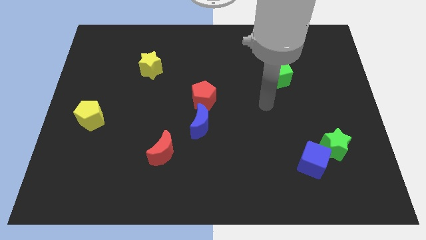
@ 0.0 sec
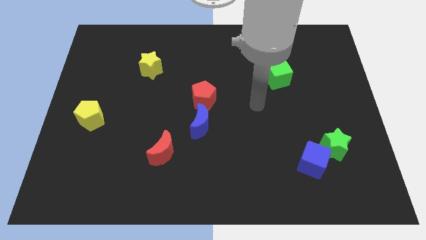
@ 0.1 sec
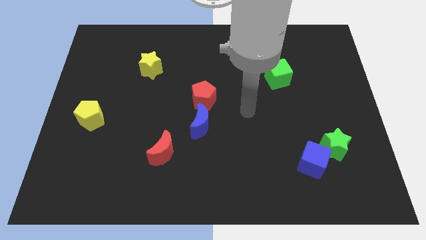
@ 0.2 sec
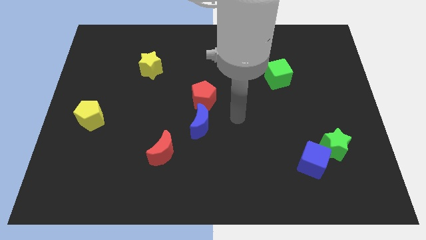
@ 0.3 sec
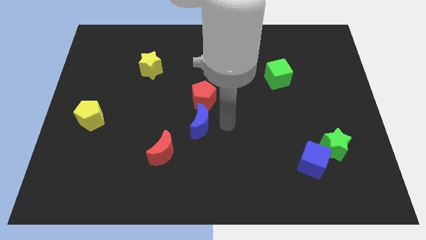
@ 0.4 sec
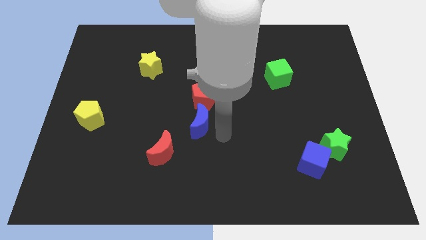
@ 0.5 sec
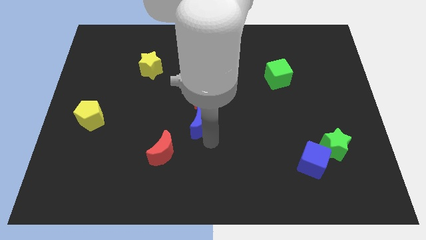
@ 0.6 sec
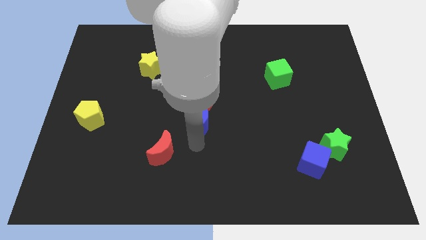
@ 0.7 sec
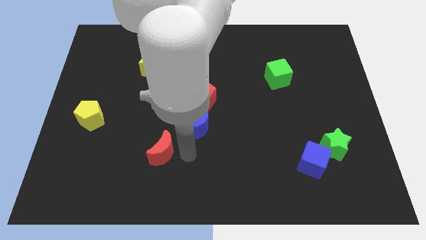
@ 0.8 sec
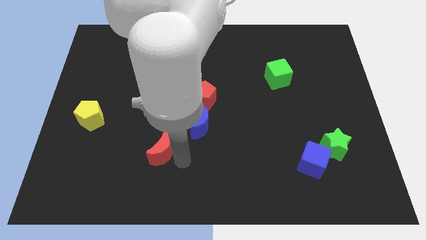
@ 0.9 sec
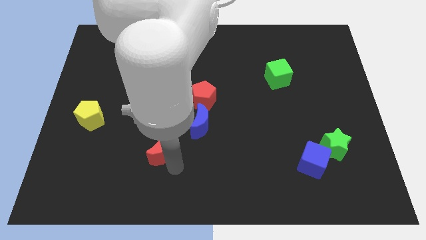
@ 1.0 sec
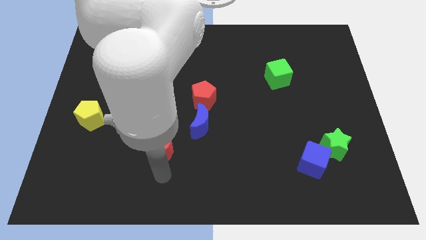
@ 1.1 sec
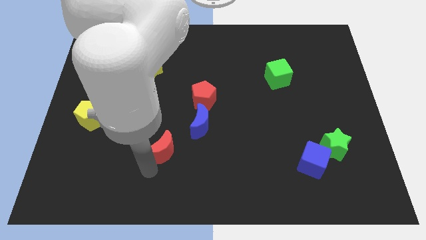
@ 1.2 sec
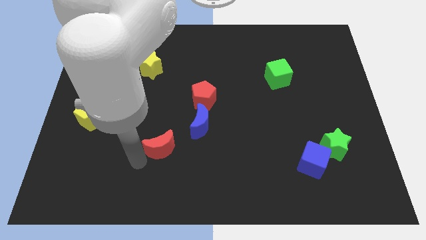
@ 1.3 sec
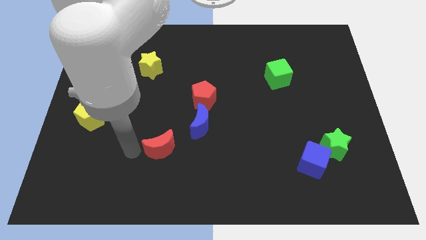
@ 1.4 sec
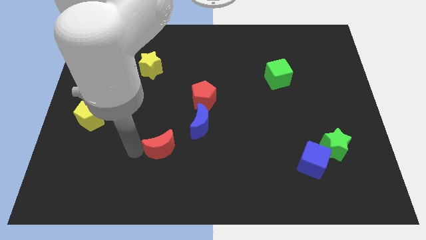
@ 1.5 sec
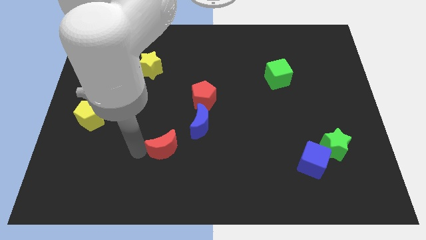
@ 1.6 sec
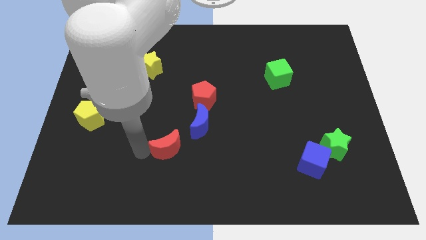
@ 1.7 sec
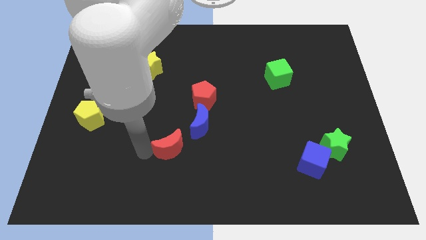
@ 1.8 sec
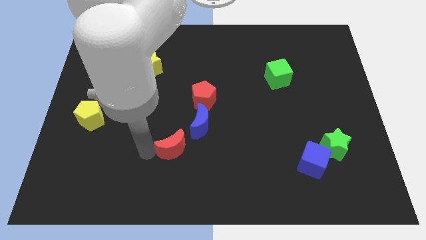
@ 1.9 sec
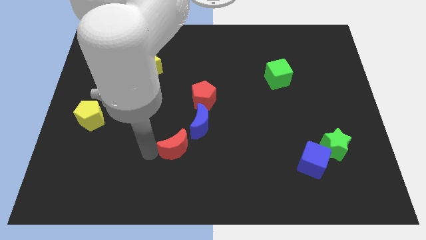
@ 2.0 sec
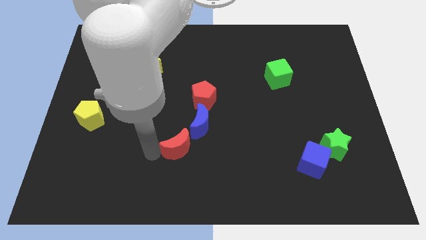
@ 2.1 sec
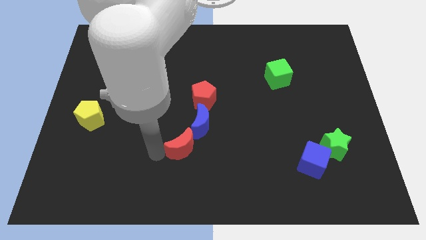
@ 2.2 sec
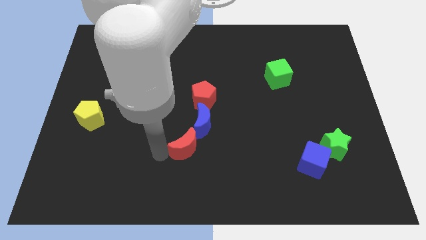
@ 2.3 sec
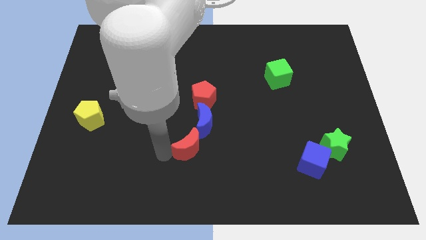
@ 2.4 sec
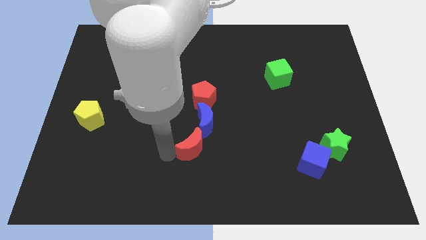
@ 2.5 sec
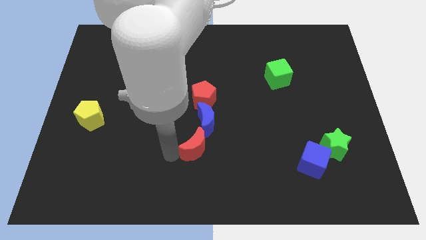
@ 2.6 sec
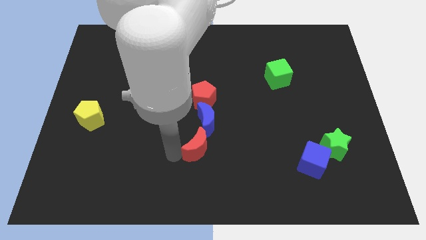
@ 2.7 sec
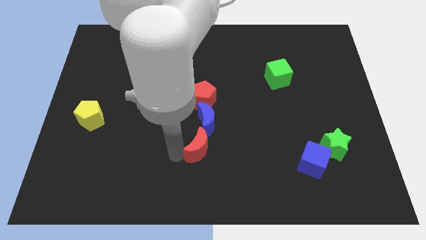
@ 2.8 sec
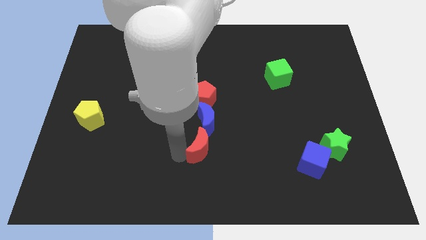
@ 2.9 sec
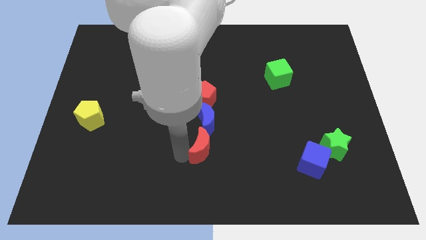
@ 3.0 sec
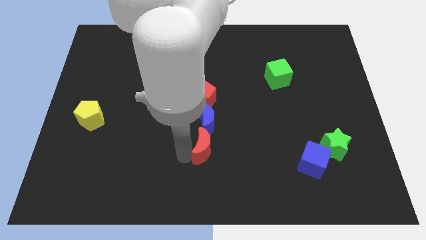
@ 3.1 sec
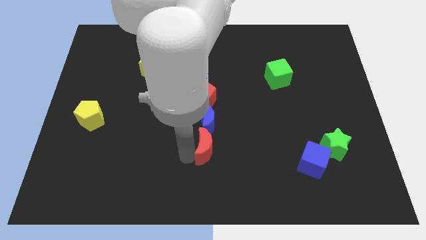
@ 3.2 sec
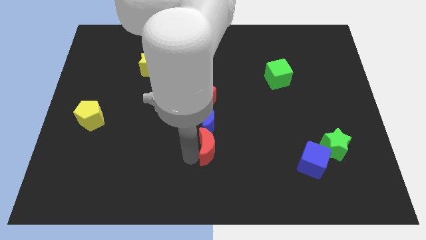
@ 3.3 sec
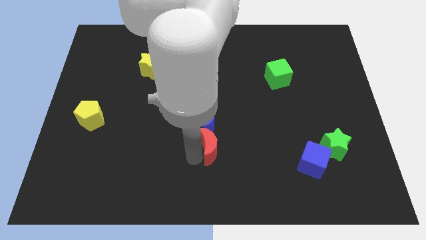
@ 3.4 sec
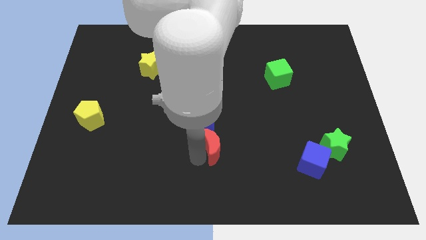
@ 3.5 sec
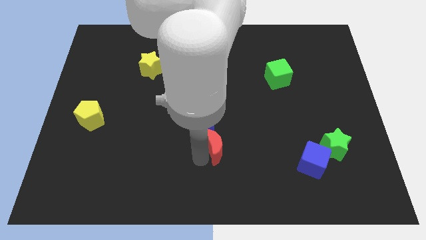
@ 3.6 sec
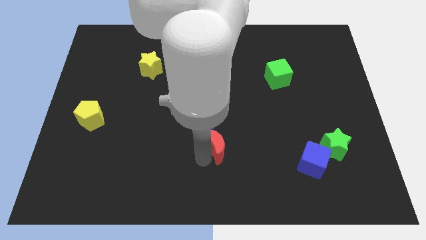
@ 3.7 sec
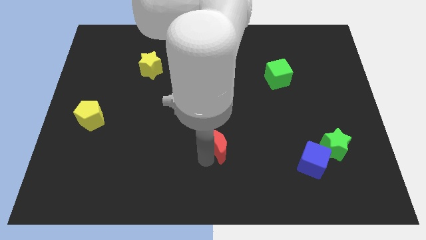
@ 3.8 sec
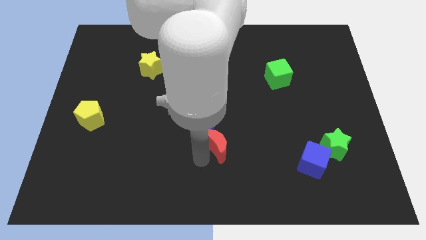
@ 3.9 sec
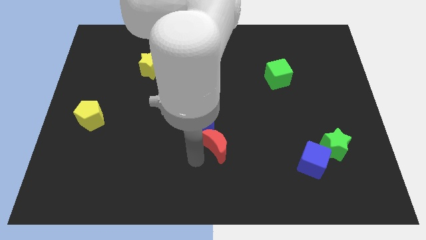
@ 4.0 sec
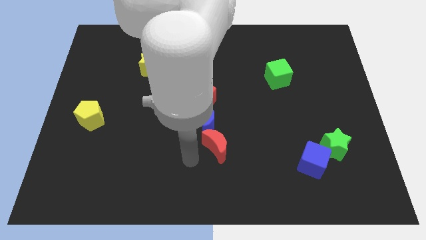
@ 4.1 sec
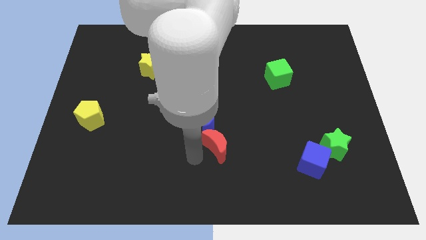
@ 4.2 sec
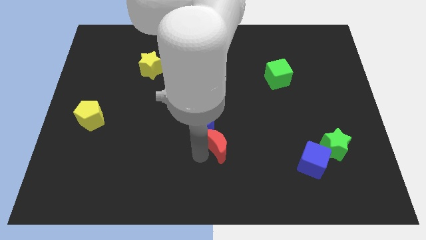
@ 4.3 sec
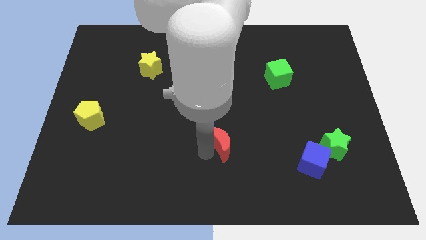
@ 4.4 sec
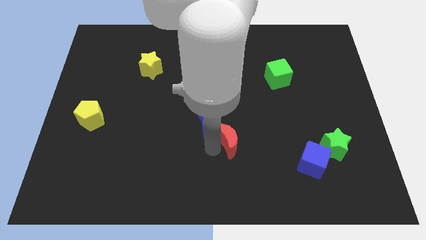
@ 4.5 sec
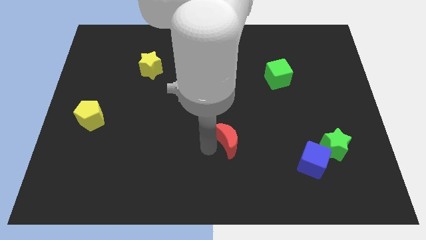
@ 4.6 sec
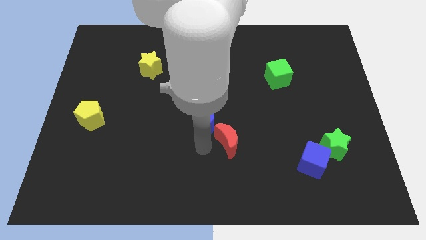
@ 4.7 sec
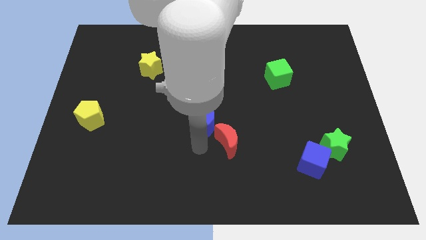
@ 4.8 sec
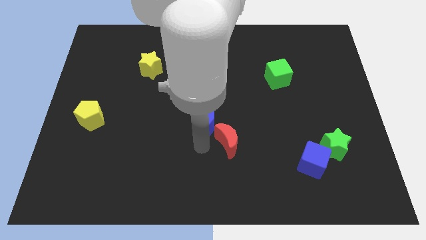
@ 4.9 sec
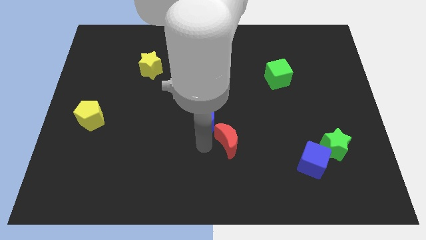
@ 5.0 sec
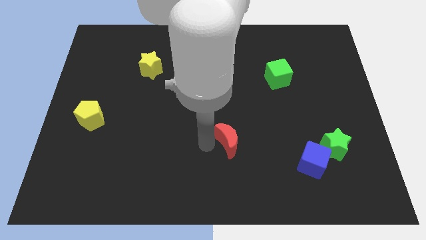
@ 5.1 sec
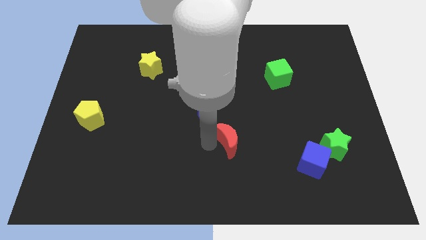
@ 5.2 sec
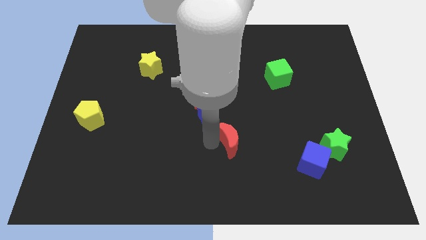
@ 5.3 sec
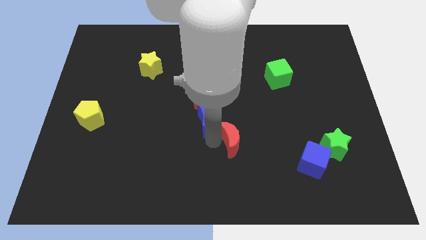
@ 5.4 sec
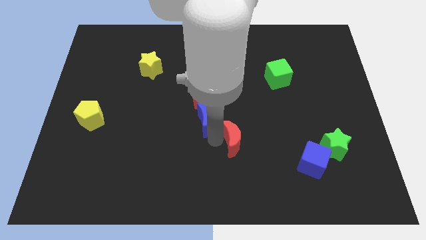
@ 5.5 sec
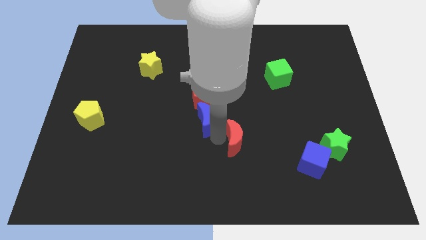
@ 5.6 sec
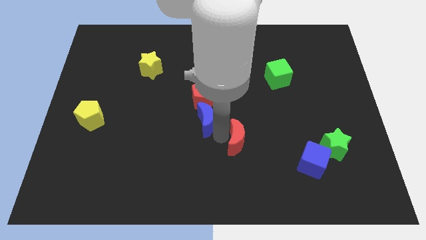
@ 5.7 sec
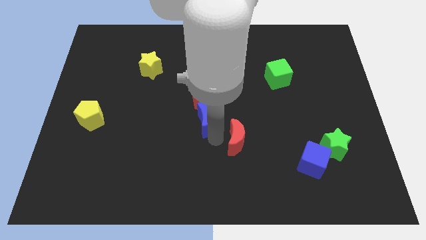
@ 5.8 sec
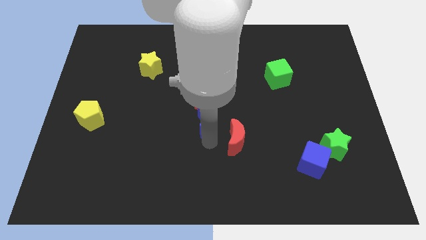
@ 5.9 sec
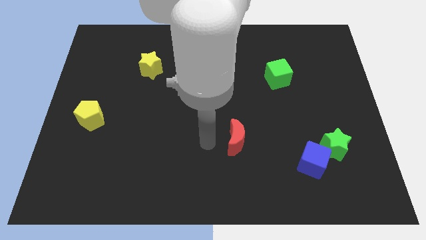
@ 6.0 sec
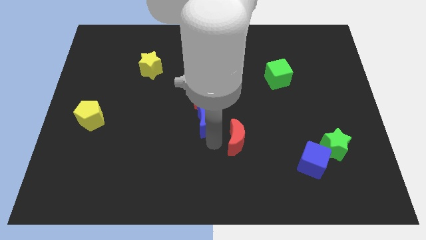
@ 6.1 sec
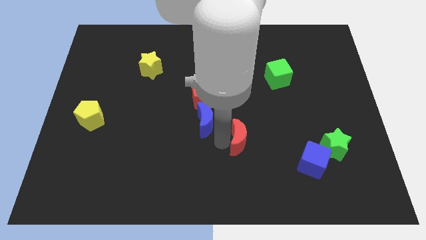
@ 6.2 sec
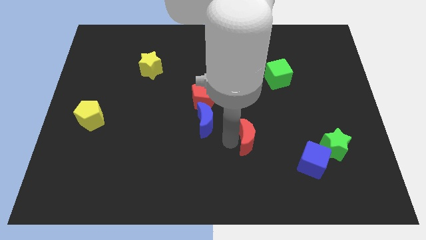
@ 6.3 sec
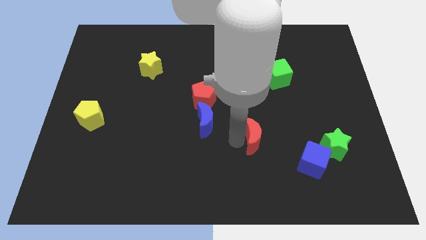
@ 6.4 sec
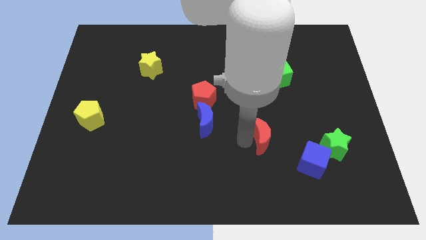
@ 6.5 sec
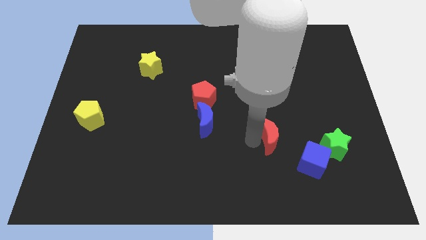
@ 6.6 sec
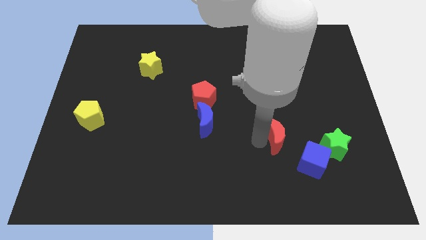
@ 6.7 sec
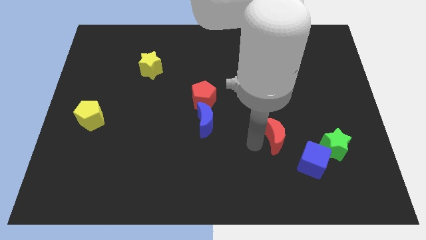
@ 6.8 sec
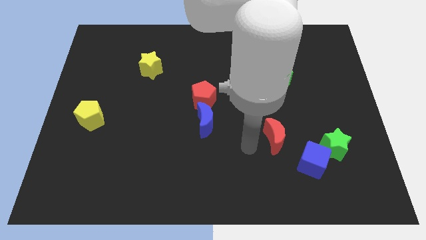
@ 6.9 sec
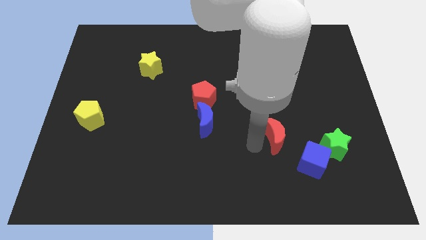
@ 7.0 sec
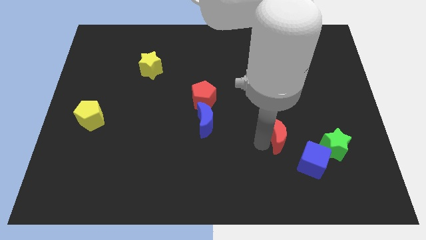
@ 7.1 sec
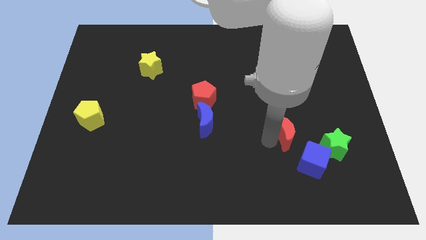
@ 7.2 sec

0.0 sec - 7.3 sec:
move the red moon to the top left of the green star

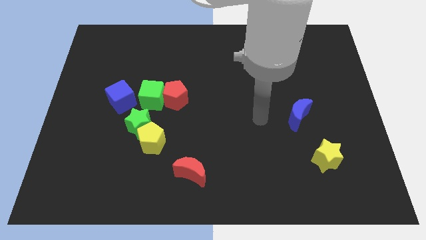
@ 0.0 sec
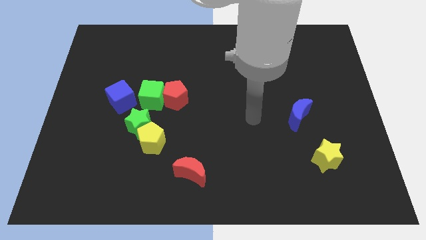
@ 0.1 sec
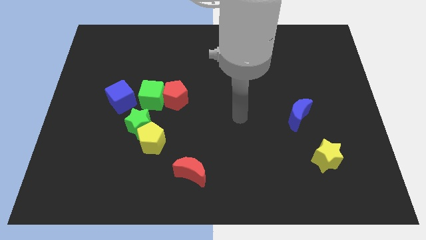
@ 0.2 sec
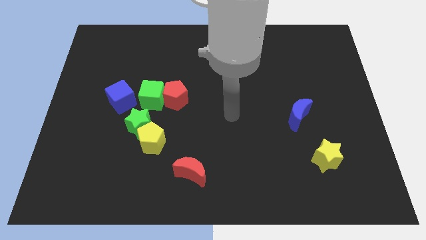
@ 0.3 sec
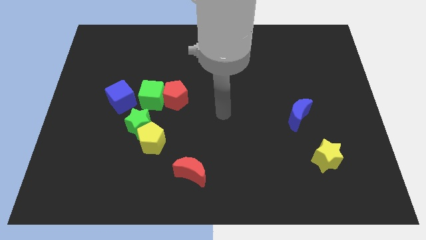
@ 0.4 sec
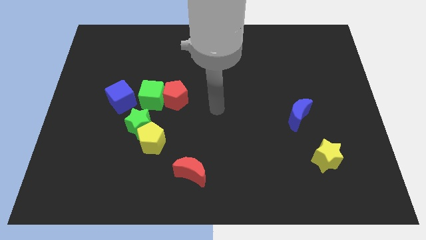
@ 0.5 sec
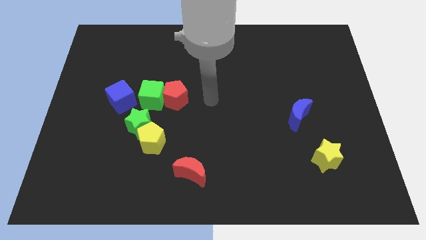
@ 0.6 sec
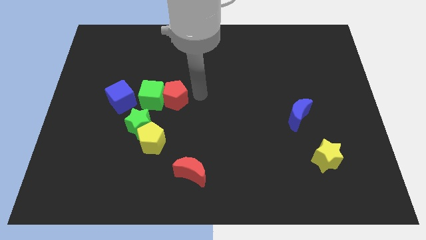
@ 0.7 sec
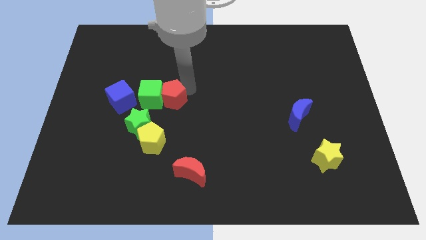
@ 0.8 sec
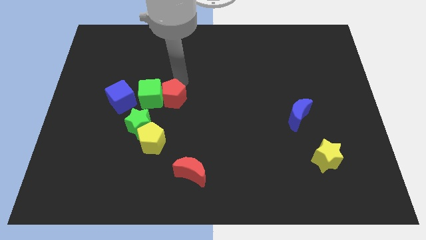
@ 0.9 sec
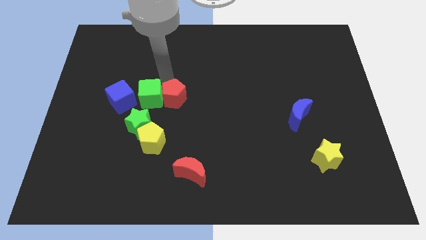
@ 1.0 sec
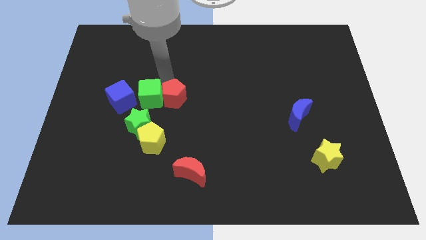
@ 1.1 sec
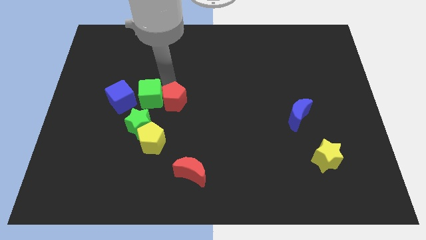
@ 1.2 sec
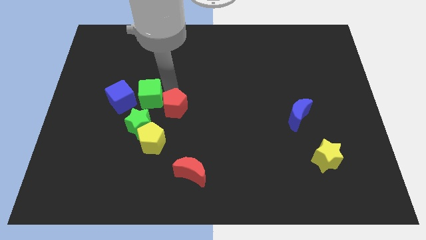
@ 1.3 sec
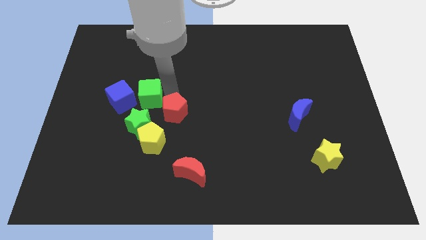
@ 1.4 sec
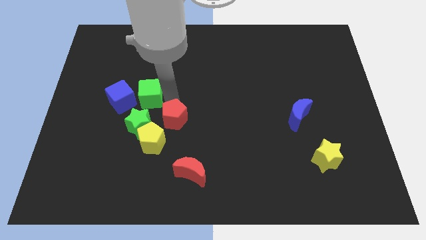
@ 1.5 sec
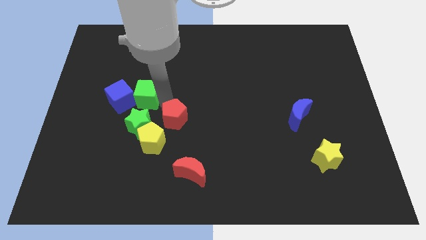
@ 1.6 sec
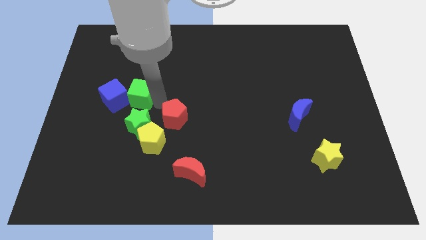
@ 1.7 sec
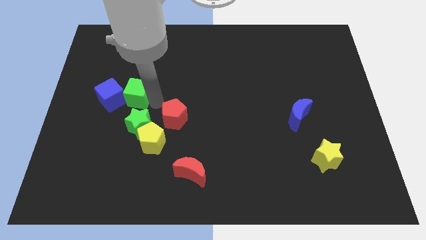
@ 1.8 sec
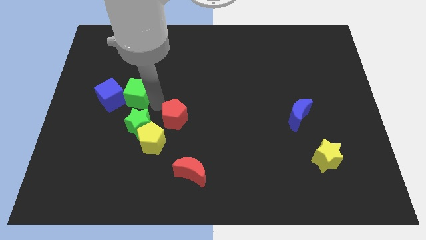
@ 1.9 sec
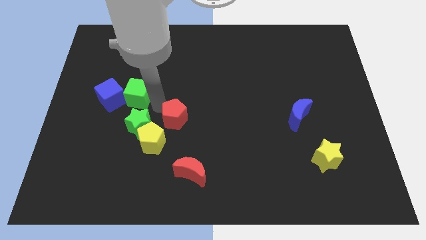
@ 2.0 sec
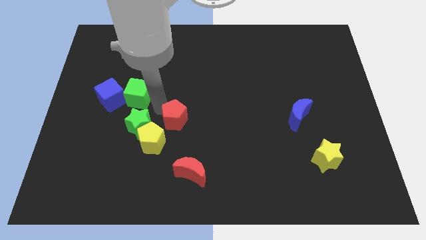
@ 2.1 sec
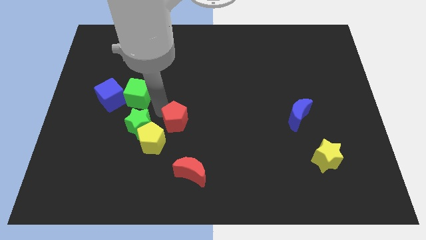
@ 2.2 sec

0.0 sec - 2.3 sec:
push the red pentagon to the top side of the red moon
